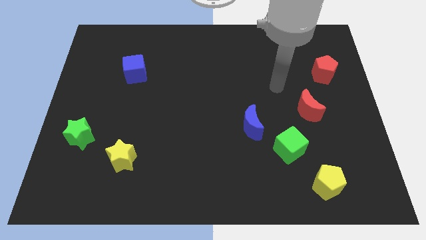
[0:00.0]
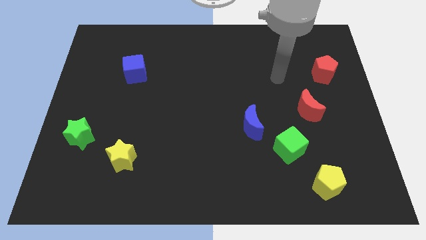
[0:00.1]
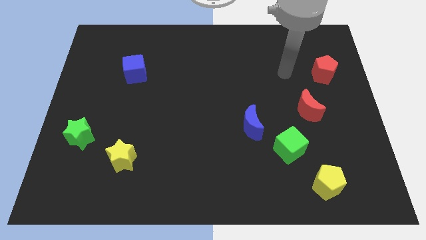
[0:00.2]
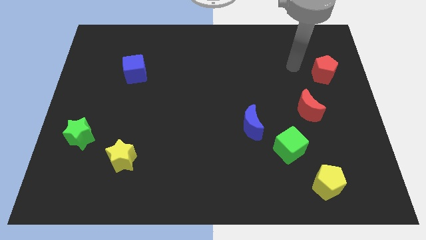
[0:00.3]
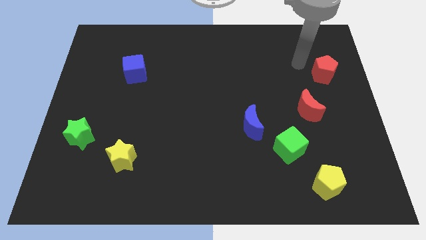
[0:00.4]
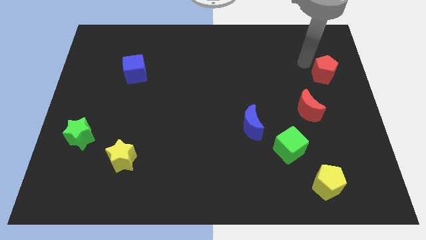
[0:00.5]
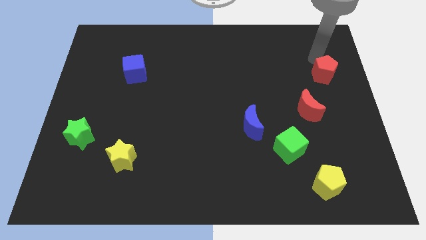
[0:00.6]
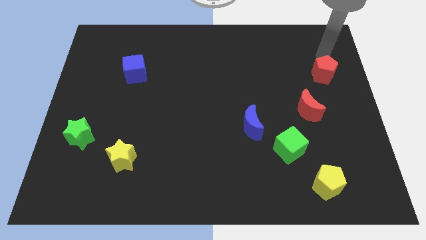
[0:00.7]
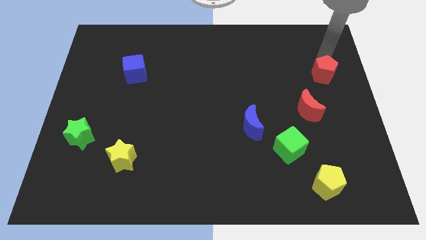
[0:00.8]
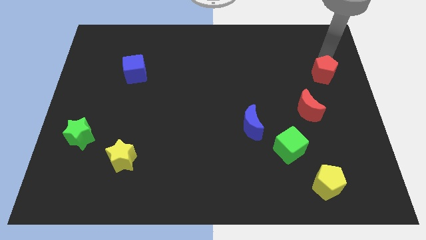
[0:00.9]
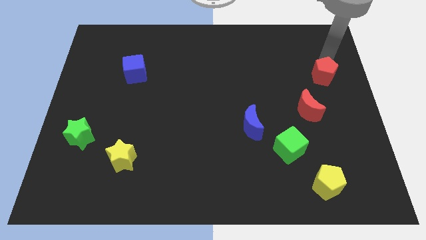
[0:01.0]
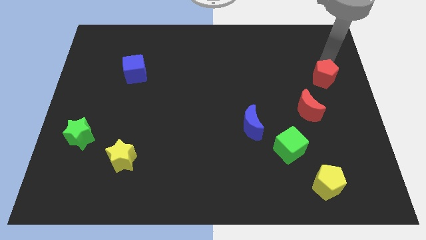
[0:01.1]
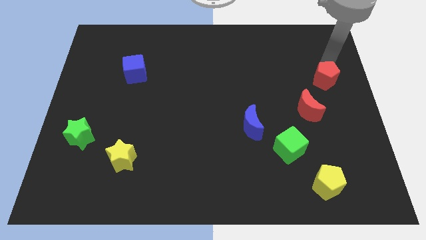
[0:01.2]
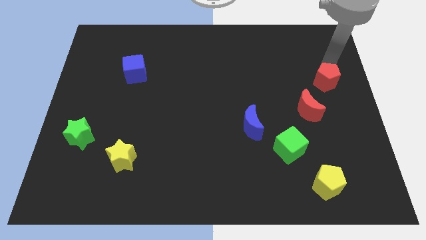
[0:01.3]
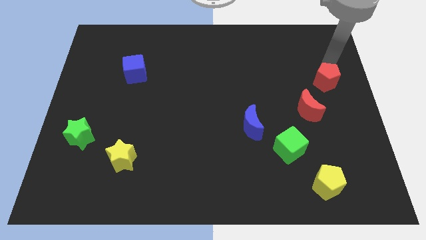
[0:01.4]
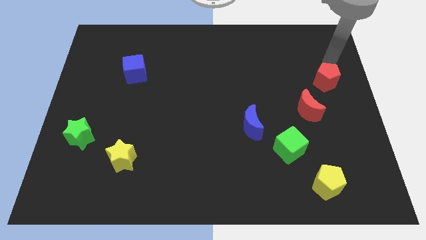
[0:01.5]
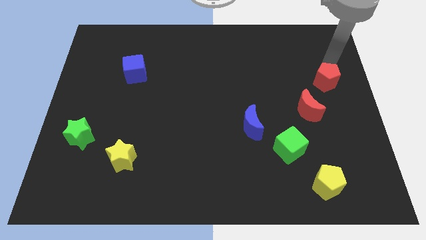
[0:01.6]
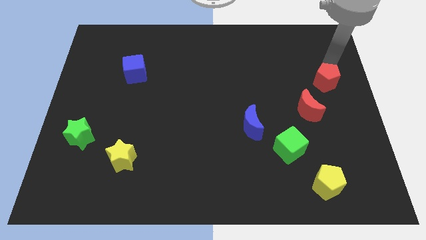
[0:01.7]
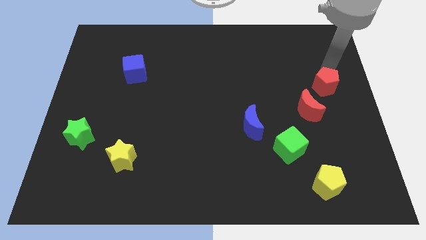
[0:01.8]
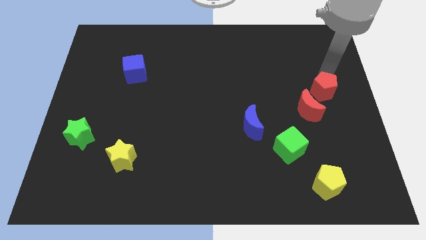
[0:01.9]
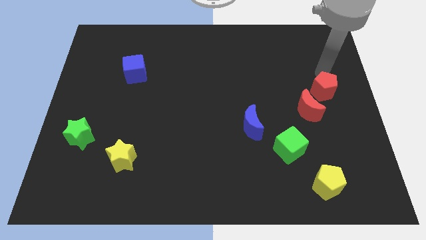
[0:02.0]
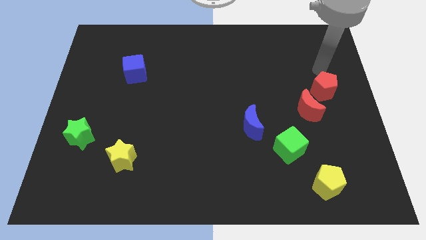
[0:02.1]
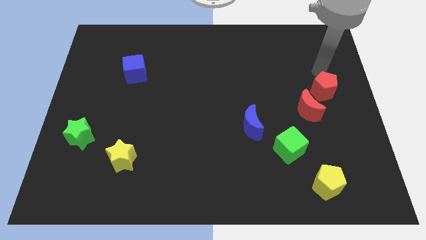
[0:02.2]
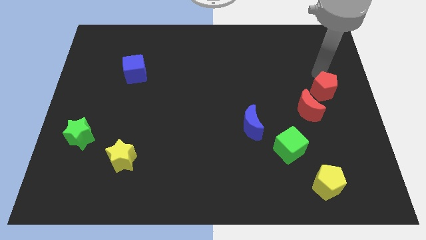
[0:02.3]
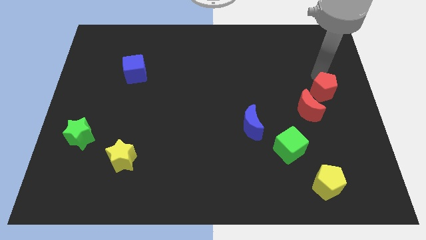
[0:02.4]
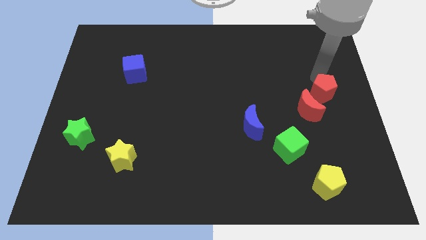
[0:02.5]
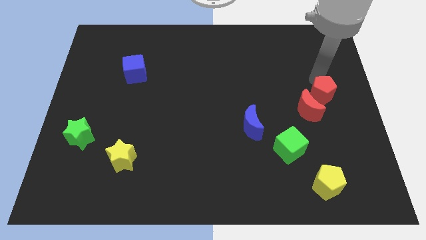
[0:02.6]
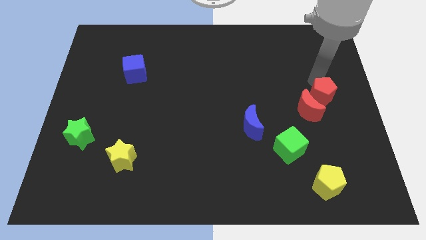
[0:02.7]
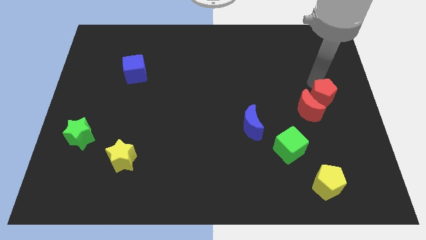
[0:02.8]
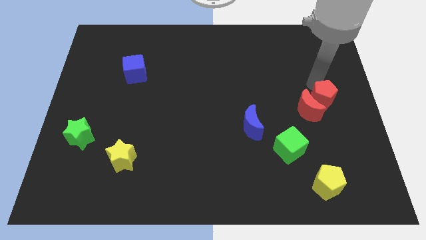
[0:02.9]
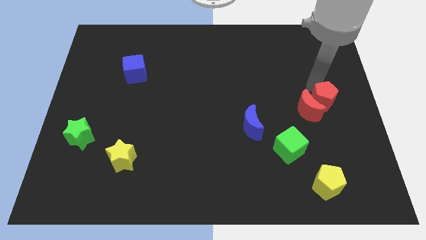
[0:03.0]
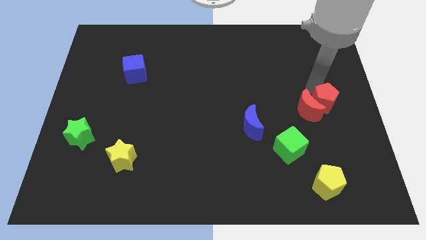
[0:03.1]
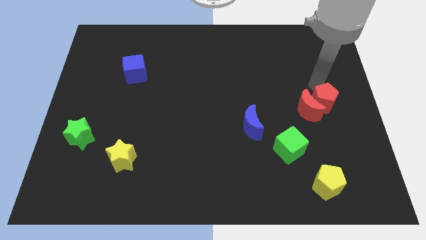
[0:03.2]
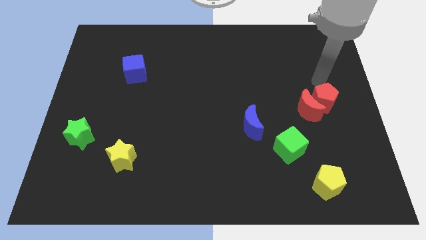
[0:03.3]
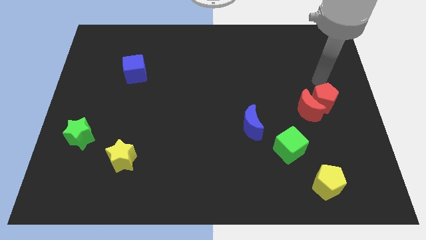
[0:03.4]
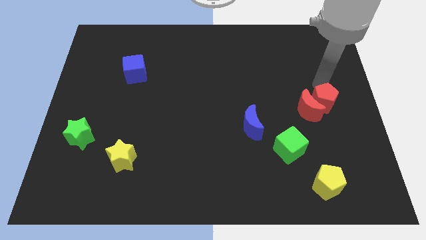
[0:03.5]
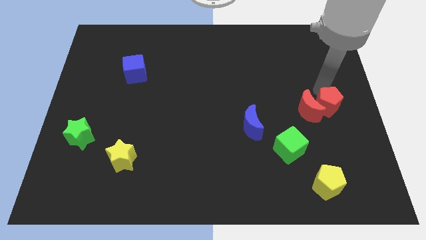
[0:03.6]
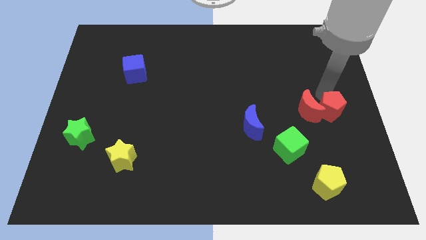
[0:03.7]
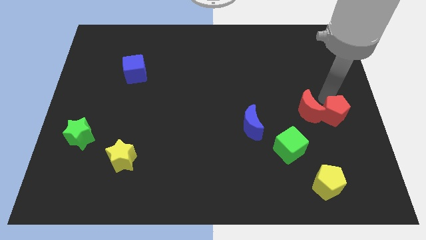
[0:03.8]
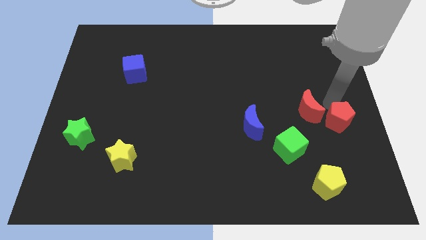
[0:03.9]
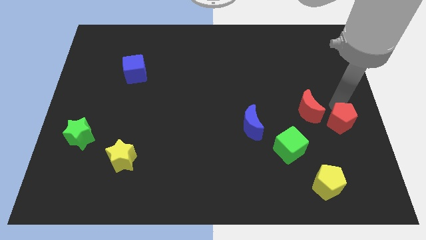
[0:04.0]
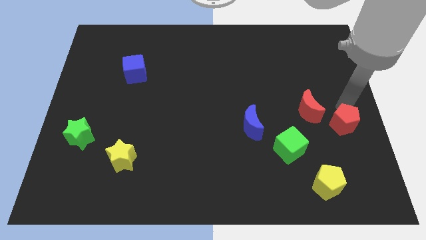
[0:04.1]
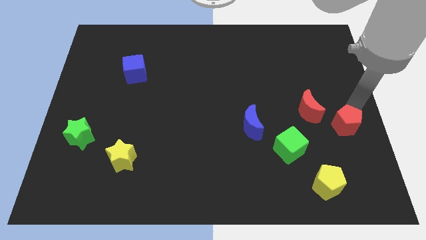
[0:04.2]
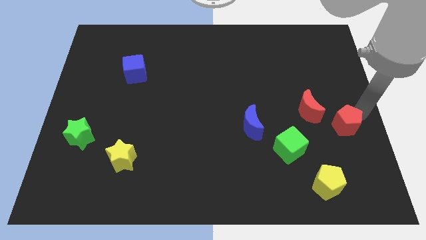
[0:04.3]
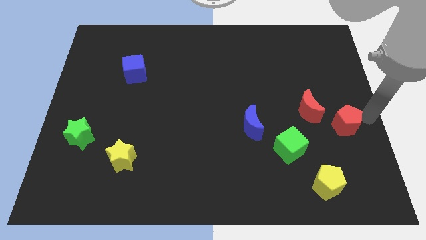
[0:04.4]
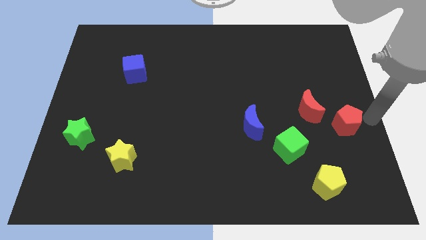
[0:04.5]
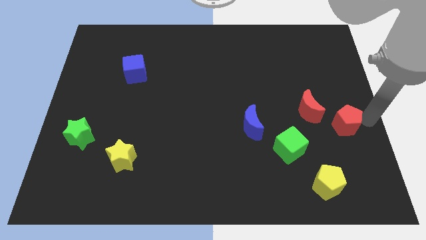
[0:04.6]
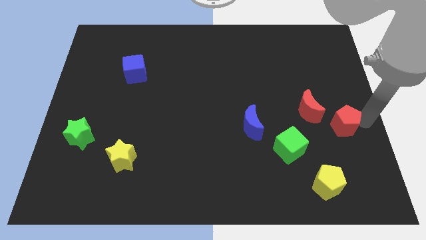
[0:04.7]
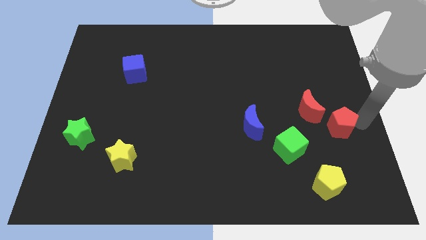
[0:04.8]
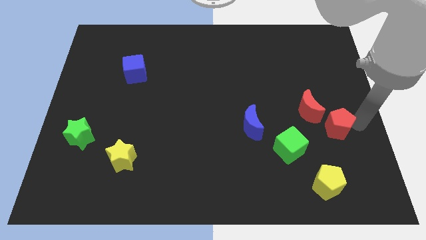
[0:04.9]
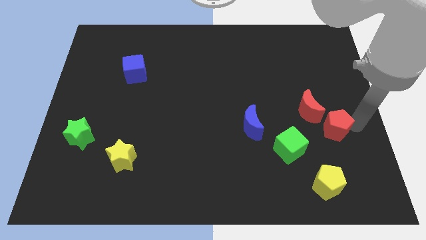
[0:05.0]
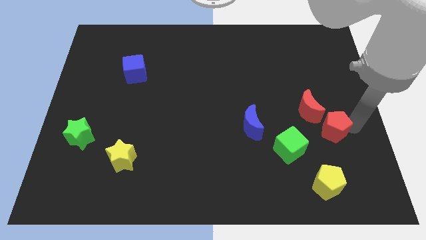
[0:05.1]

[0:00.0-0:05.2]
slide the red pentagon diagonally up and to the right of the green cube

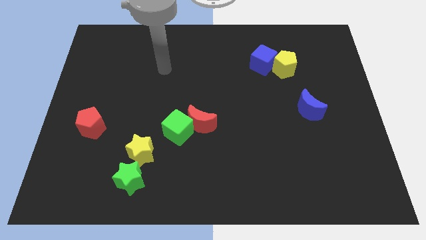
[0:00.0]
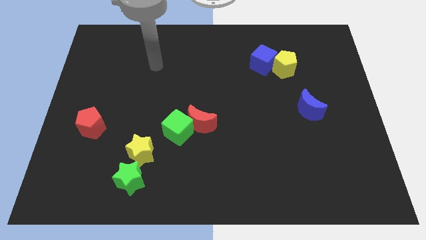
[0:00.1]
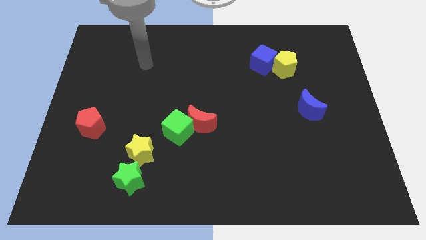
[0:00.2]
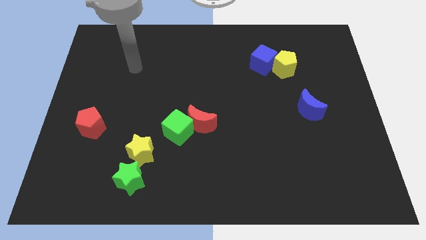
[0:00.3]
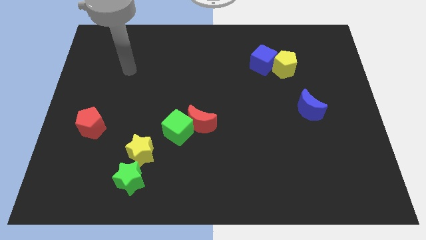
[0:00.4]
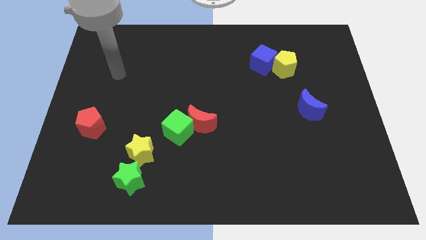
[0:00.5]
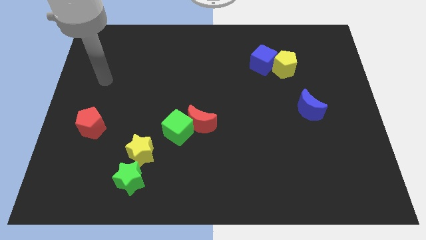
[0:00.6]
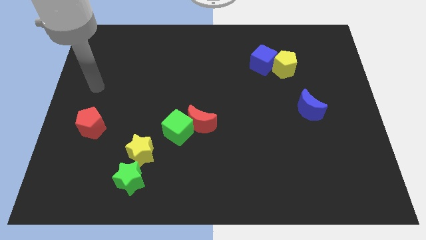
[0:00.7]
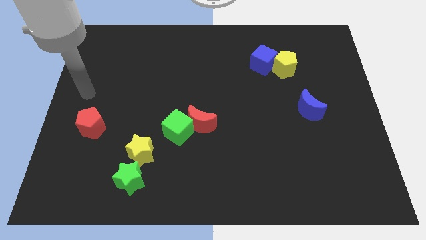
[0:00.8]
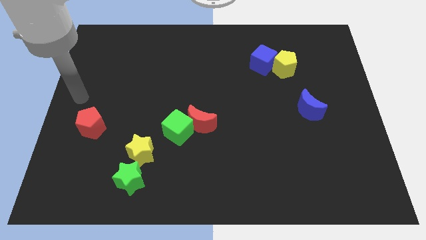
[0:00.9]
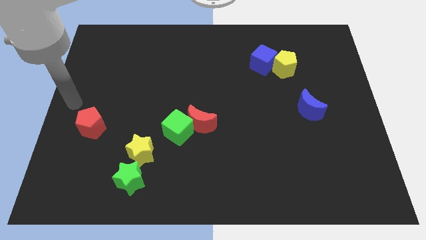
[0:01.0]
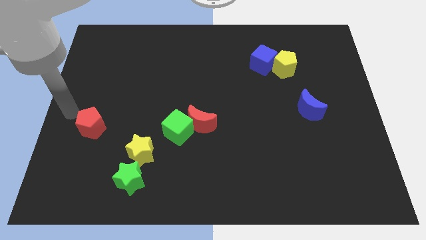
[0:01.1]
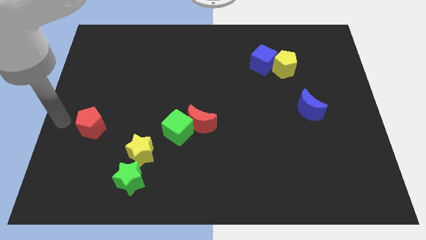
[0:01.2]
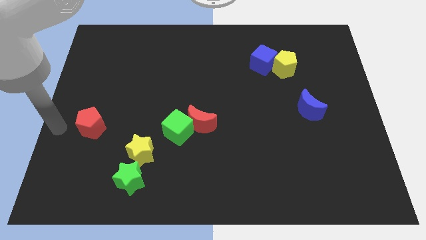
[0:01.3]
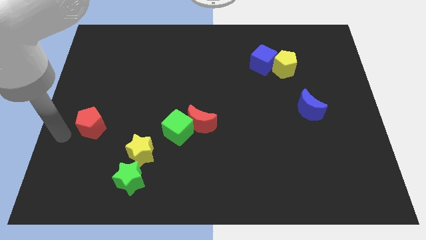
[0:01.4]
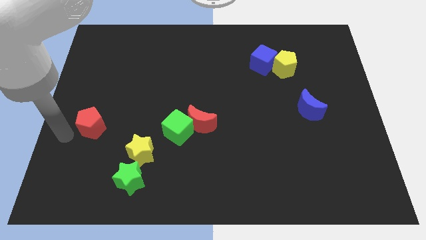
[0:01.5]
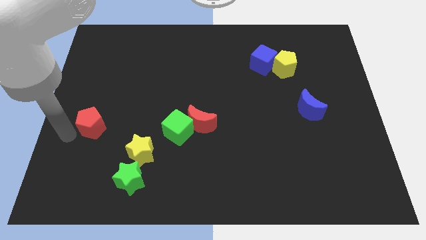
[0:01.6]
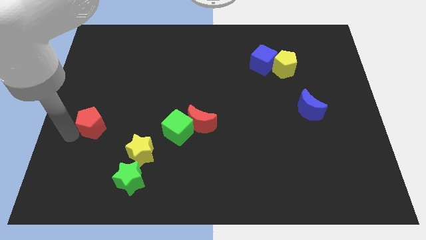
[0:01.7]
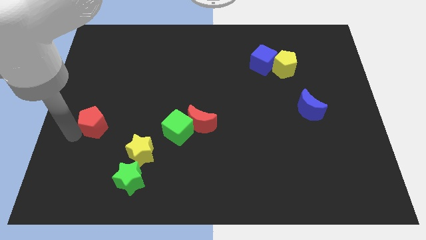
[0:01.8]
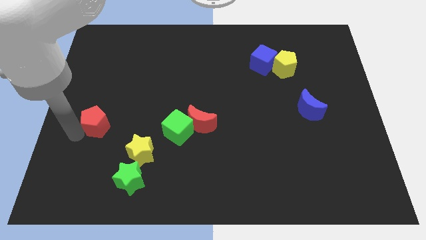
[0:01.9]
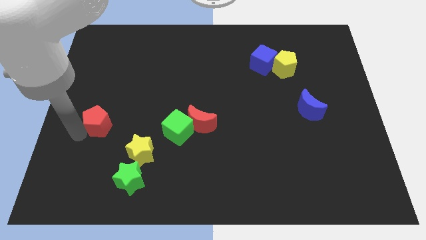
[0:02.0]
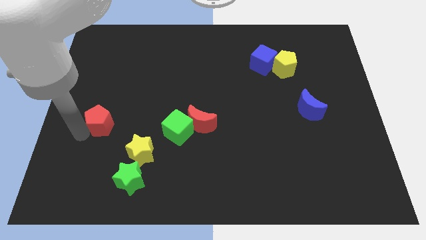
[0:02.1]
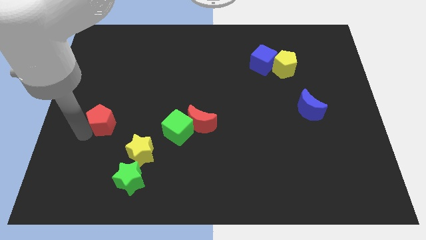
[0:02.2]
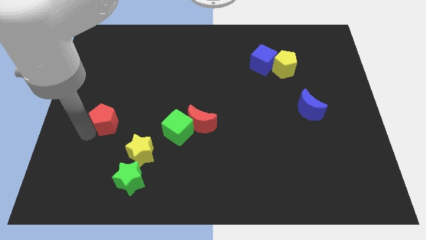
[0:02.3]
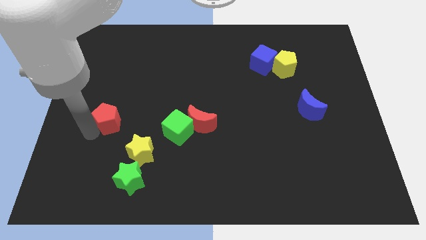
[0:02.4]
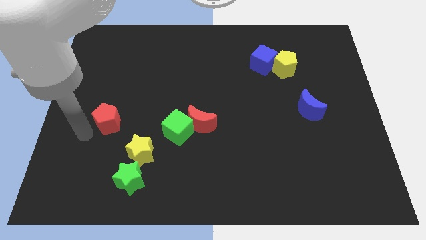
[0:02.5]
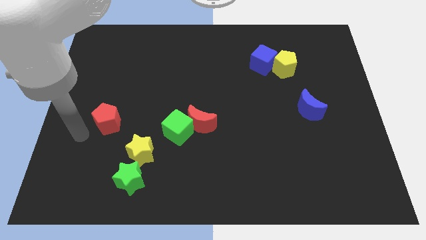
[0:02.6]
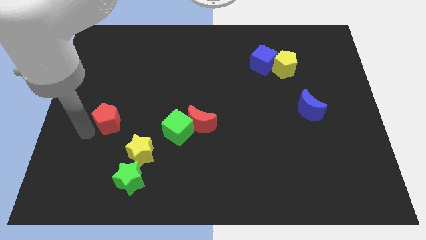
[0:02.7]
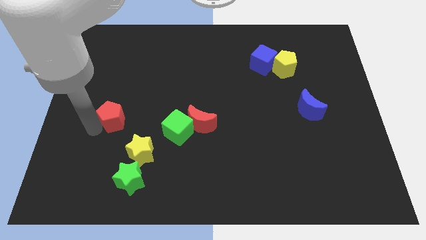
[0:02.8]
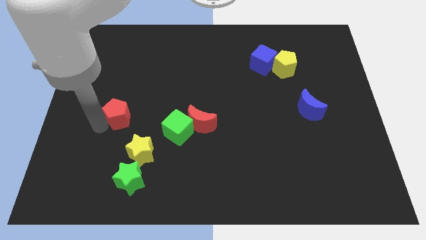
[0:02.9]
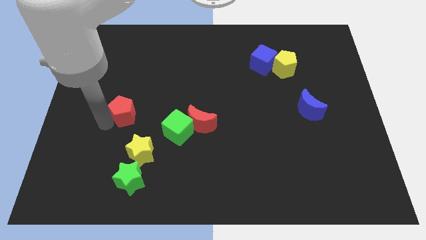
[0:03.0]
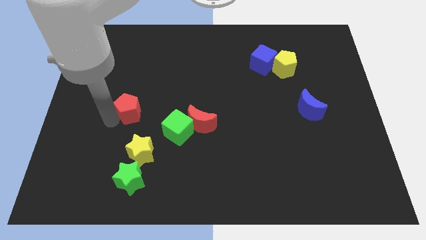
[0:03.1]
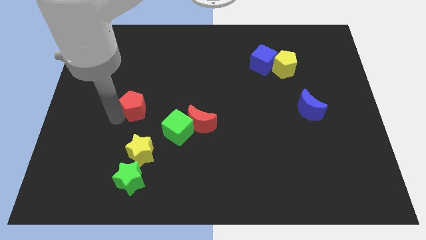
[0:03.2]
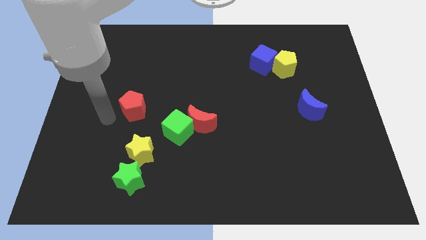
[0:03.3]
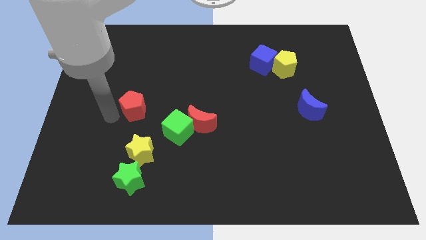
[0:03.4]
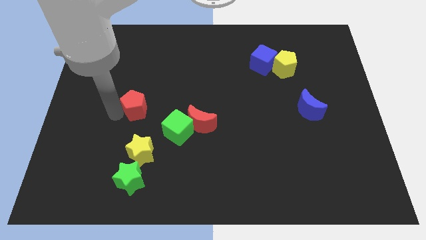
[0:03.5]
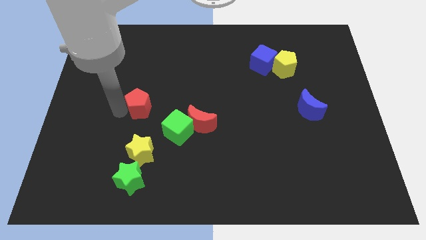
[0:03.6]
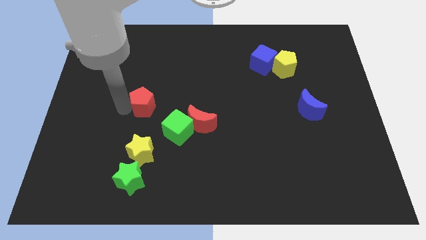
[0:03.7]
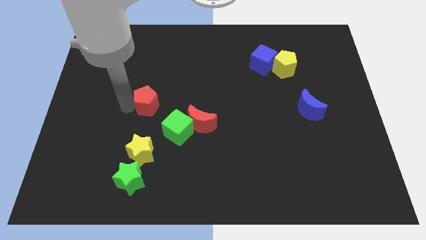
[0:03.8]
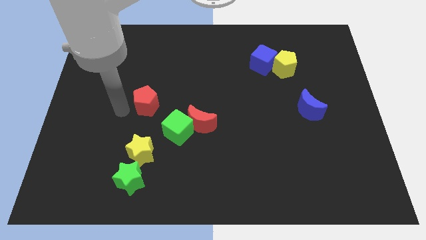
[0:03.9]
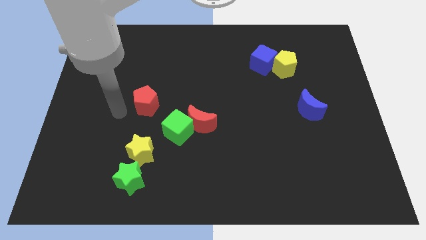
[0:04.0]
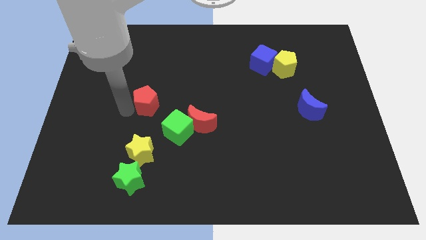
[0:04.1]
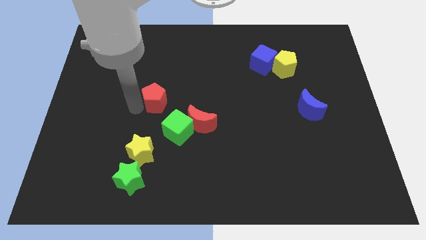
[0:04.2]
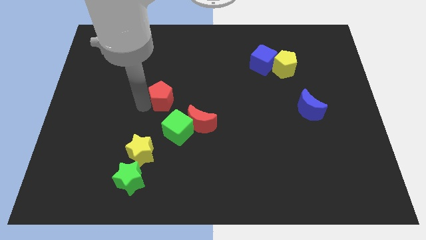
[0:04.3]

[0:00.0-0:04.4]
move the red pentagon to the top of the green cube
